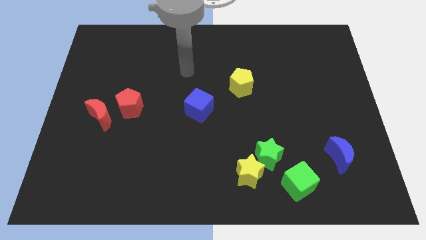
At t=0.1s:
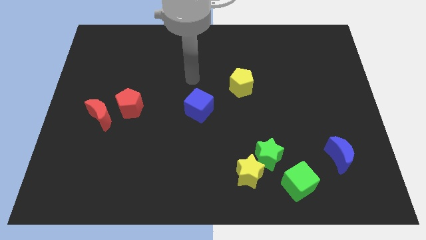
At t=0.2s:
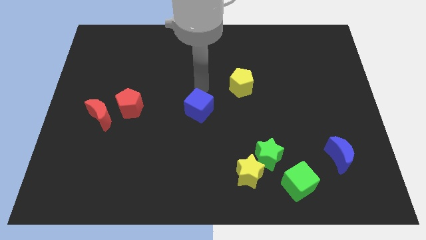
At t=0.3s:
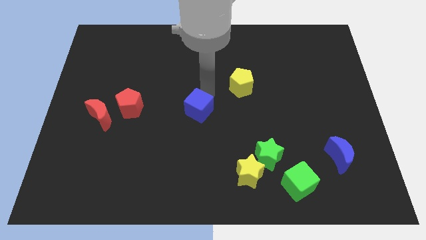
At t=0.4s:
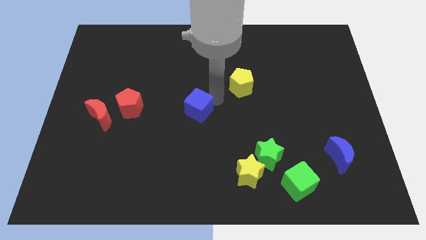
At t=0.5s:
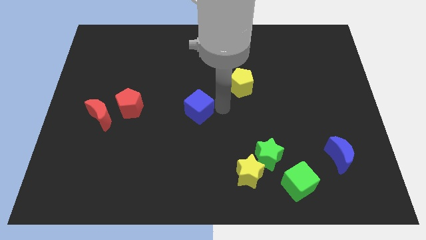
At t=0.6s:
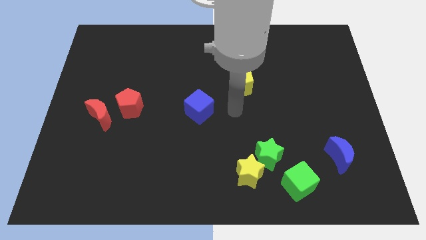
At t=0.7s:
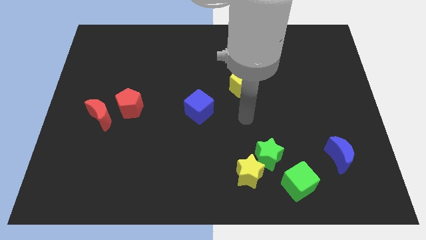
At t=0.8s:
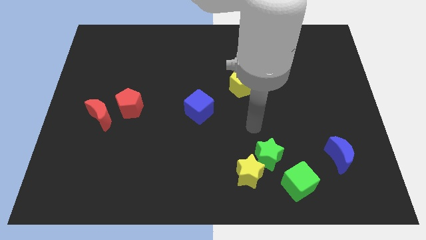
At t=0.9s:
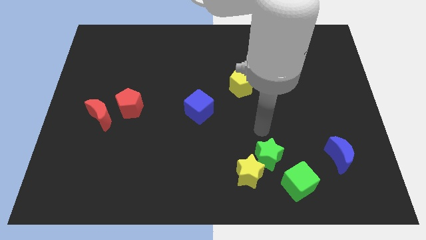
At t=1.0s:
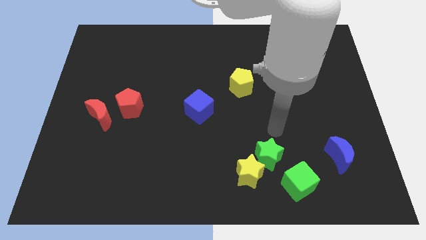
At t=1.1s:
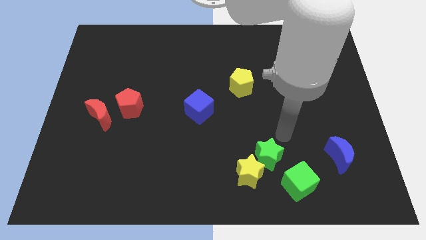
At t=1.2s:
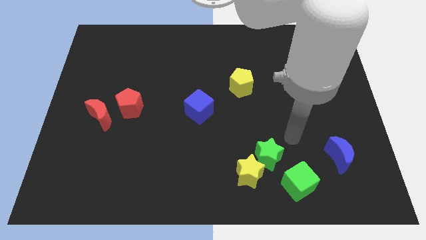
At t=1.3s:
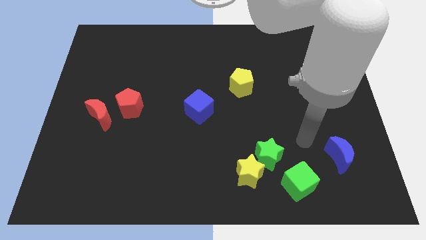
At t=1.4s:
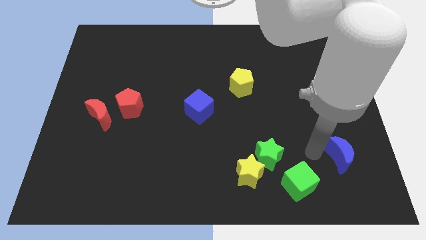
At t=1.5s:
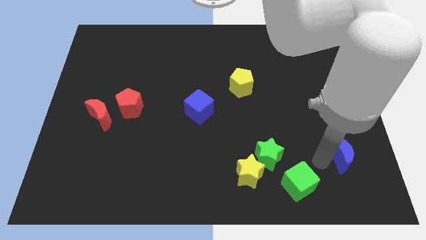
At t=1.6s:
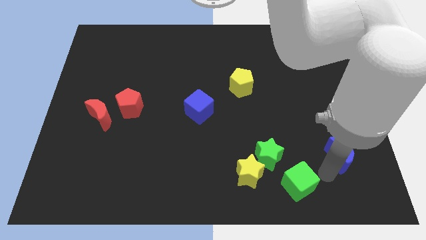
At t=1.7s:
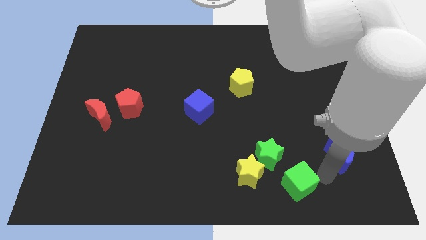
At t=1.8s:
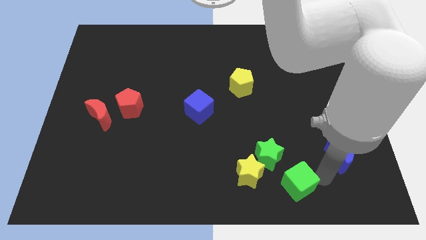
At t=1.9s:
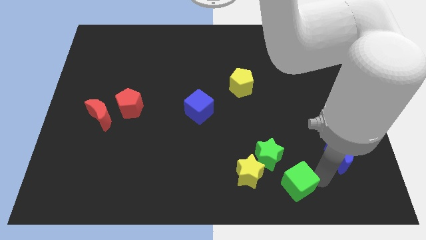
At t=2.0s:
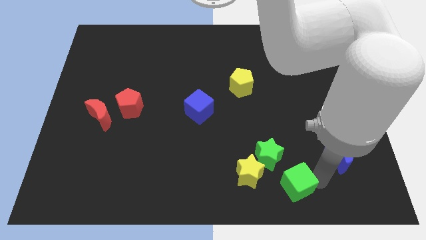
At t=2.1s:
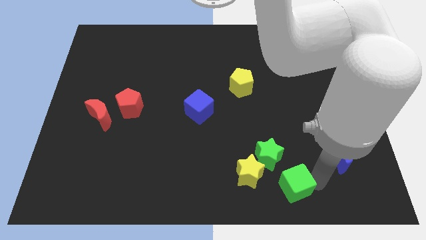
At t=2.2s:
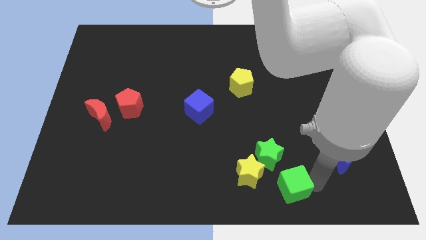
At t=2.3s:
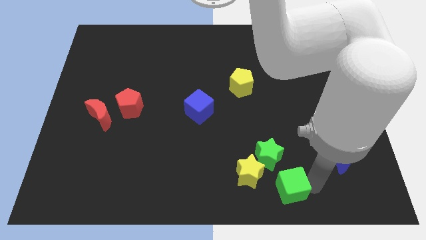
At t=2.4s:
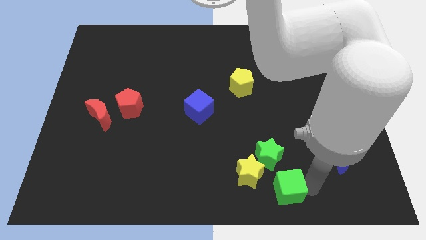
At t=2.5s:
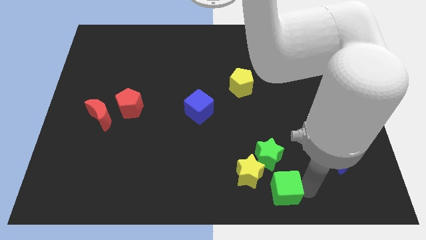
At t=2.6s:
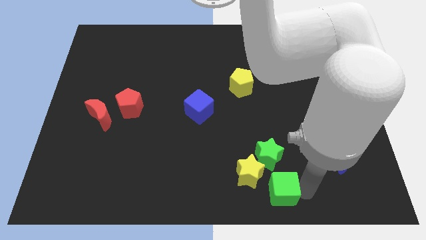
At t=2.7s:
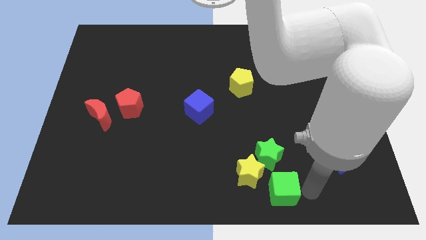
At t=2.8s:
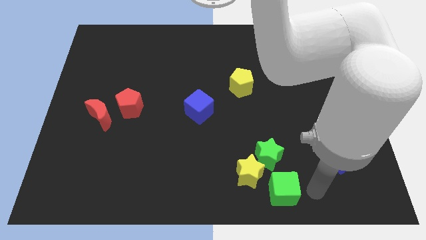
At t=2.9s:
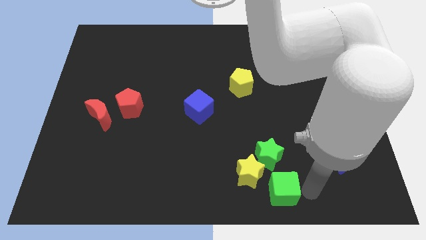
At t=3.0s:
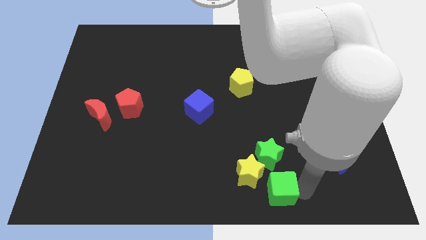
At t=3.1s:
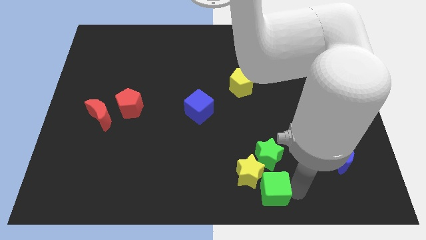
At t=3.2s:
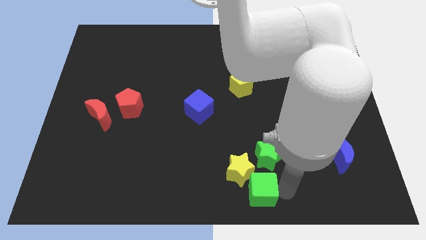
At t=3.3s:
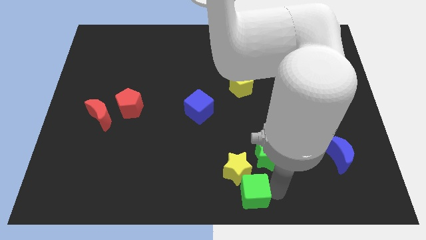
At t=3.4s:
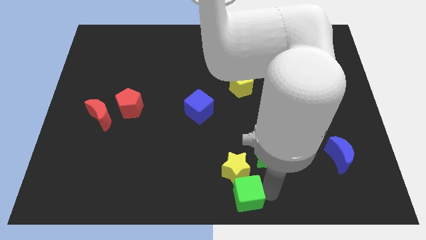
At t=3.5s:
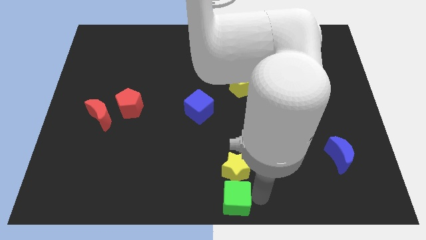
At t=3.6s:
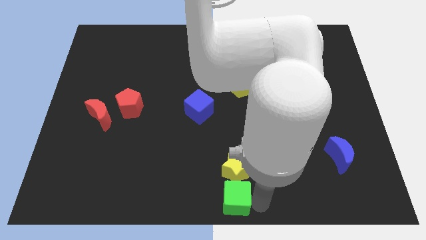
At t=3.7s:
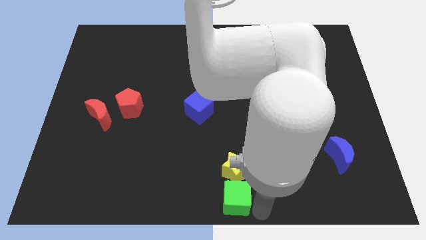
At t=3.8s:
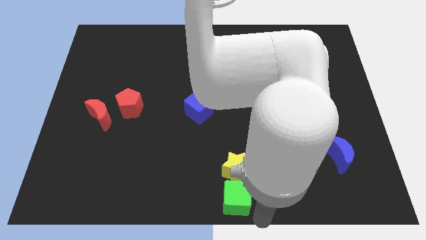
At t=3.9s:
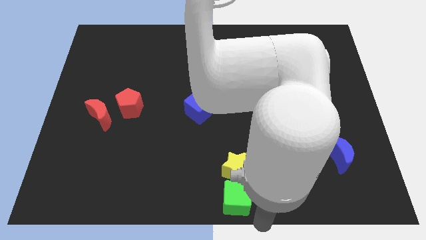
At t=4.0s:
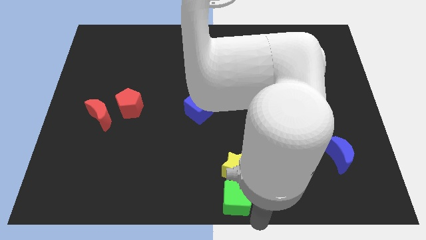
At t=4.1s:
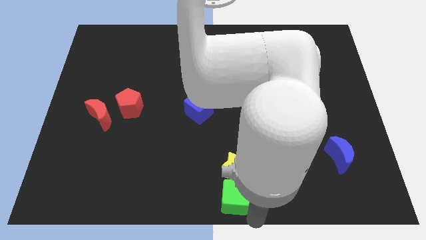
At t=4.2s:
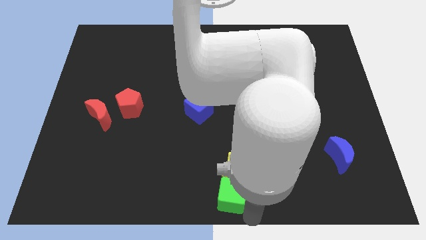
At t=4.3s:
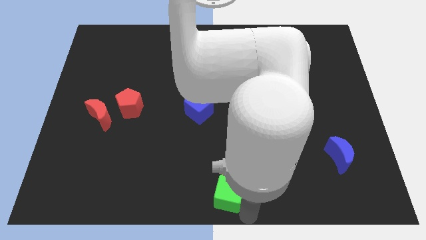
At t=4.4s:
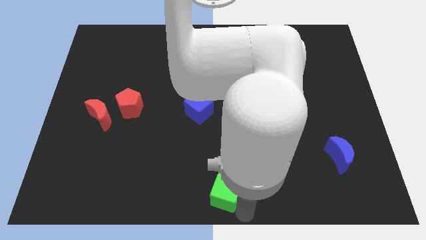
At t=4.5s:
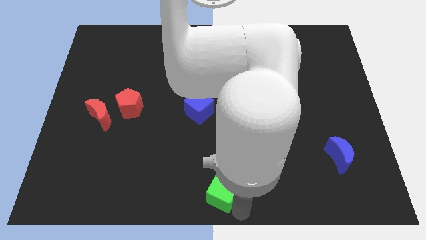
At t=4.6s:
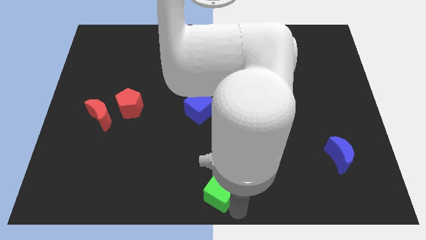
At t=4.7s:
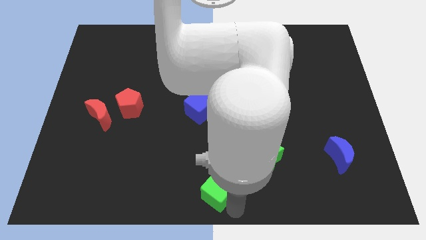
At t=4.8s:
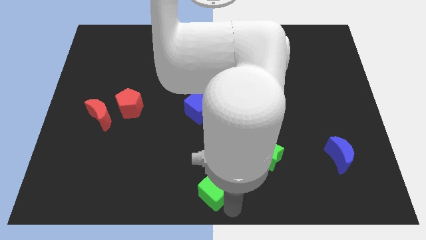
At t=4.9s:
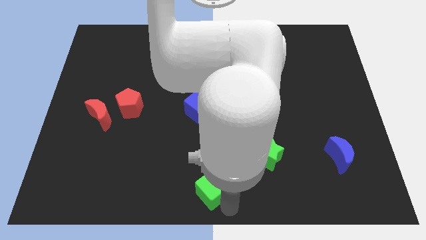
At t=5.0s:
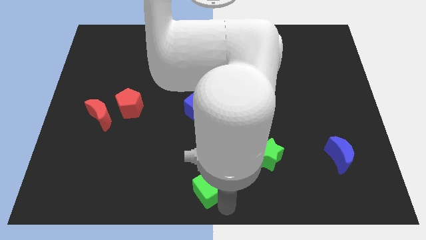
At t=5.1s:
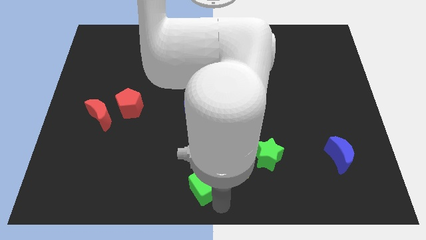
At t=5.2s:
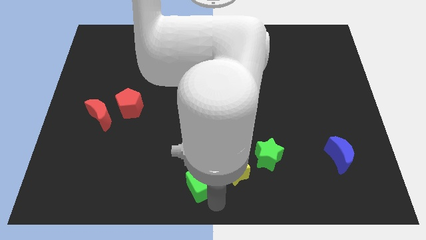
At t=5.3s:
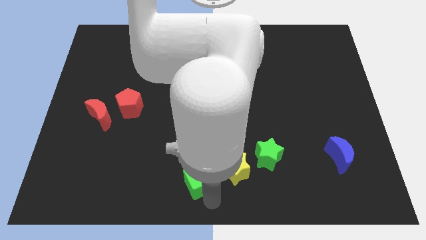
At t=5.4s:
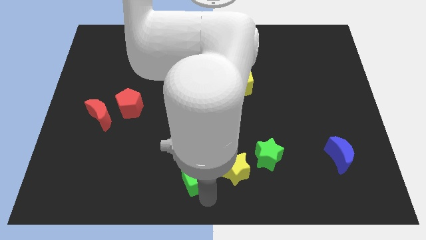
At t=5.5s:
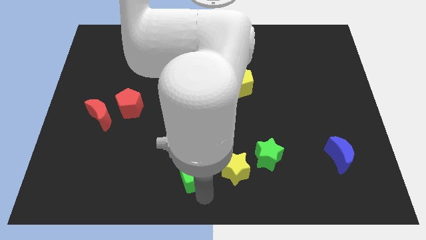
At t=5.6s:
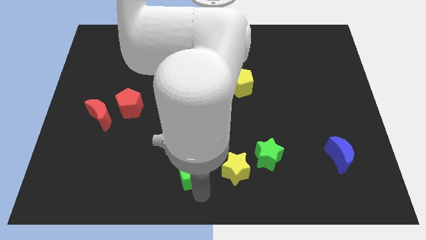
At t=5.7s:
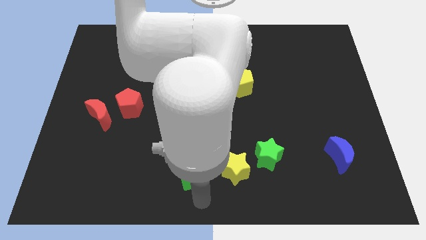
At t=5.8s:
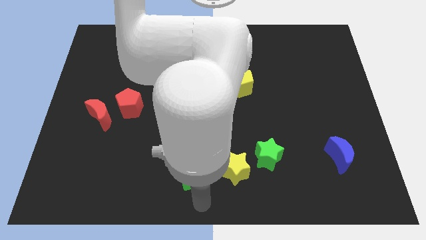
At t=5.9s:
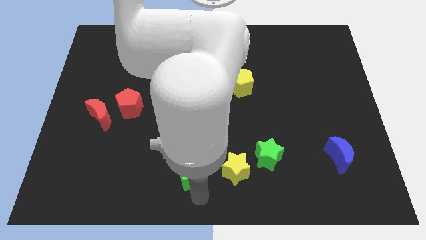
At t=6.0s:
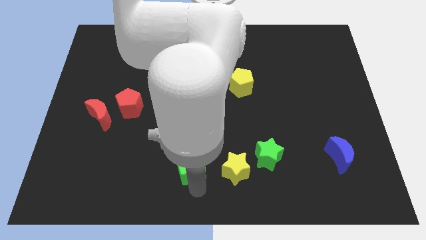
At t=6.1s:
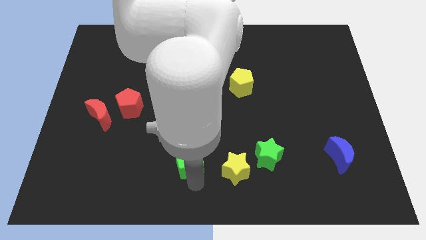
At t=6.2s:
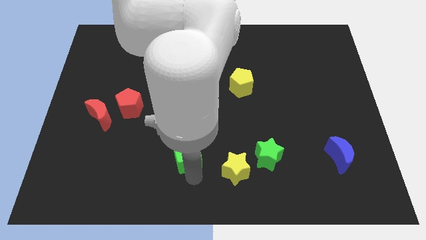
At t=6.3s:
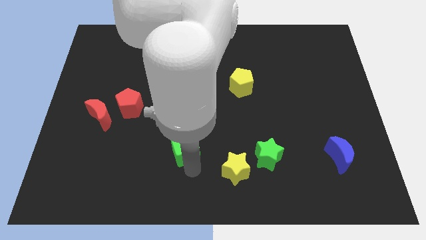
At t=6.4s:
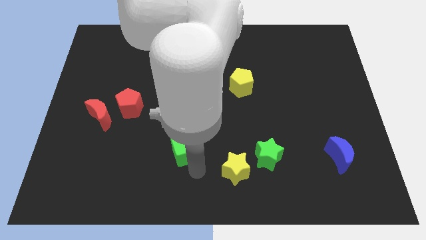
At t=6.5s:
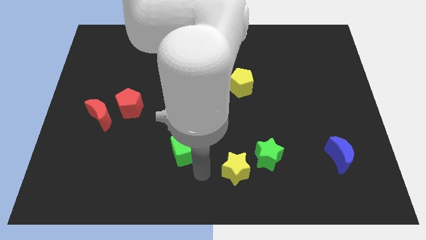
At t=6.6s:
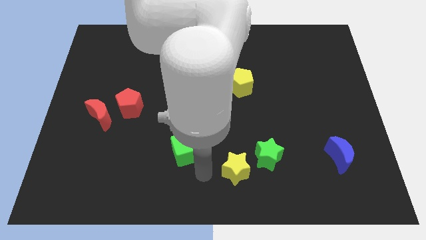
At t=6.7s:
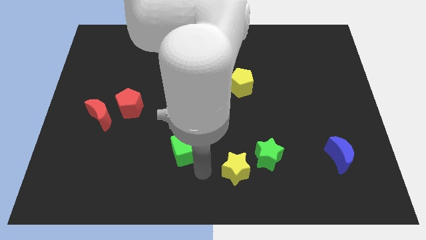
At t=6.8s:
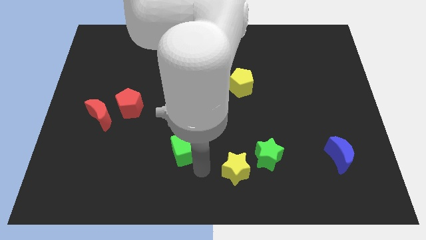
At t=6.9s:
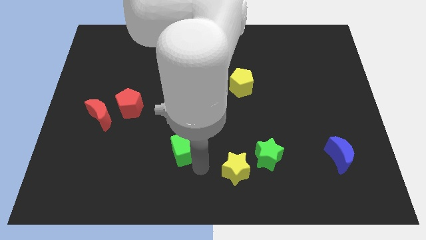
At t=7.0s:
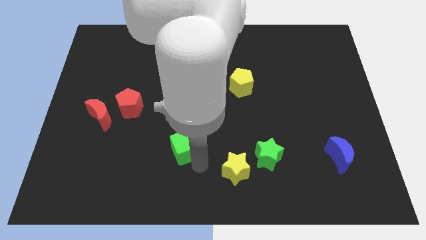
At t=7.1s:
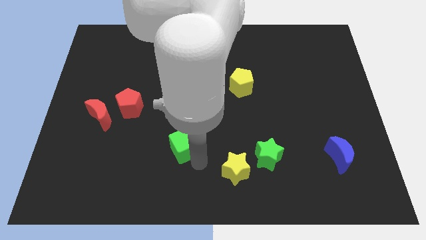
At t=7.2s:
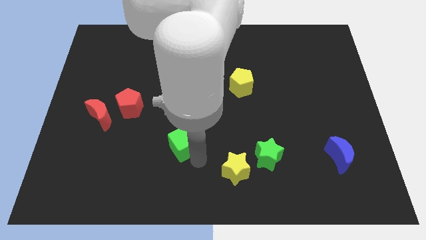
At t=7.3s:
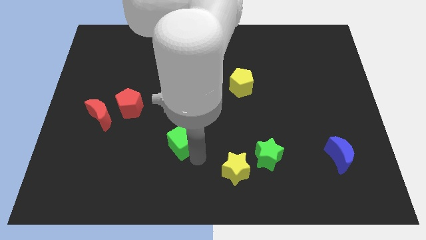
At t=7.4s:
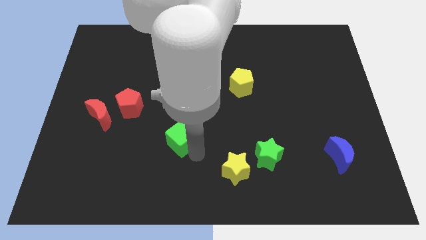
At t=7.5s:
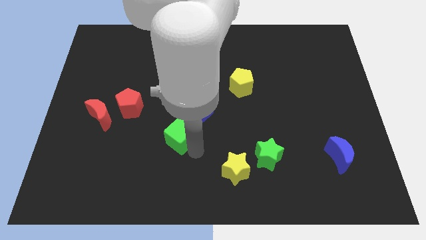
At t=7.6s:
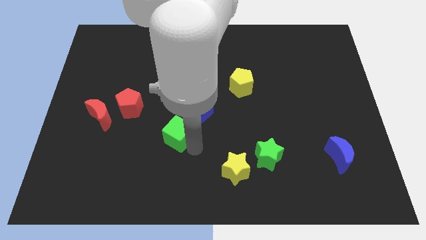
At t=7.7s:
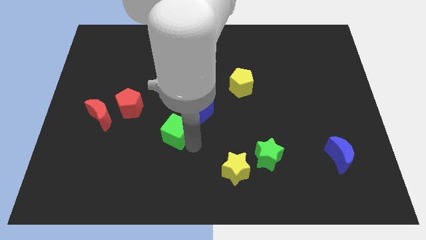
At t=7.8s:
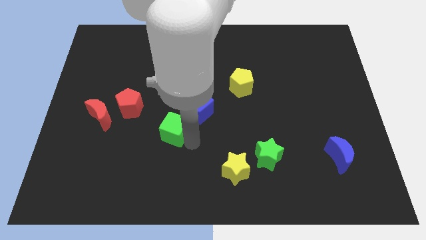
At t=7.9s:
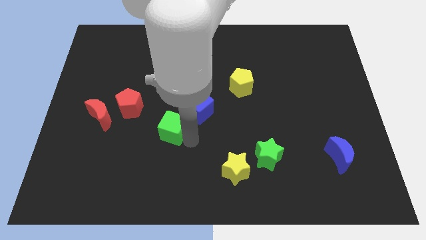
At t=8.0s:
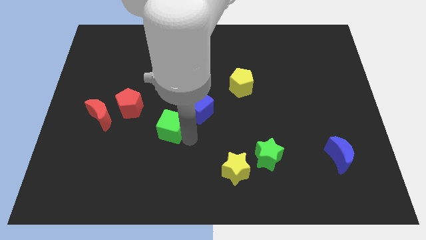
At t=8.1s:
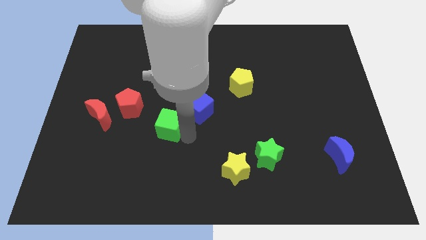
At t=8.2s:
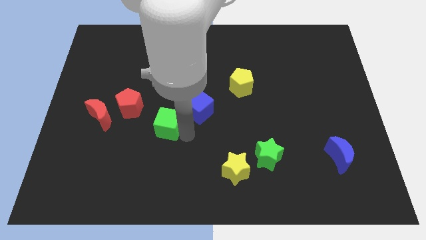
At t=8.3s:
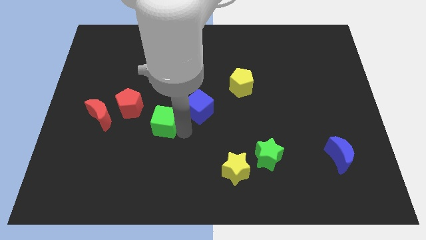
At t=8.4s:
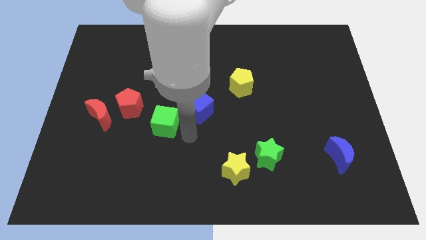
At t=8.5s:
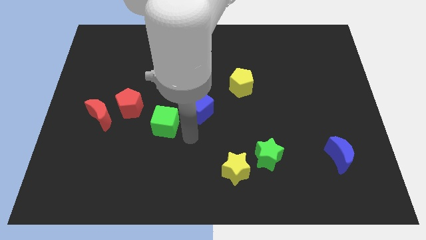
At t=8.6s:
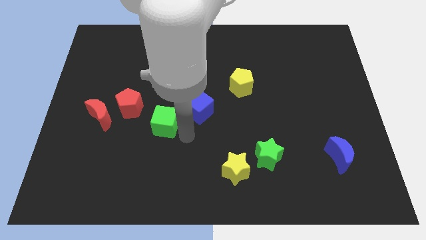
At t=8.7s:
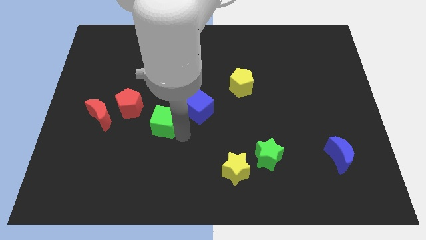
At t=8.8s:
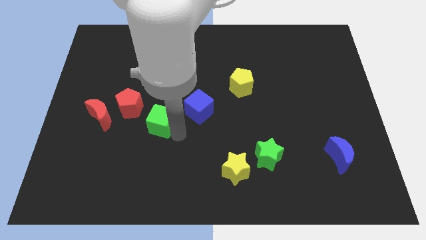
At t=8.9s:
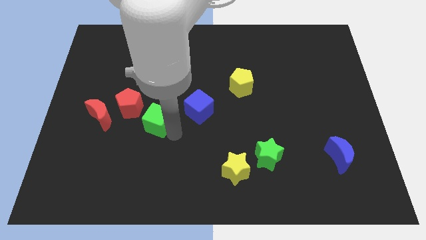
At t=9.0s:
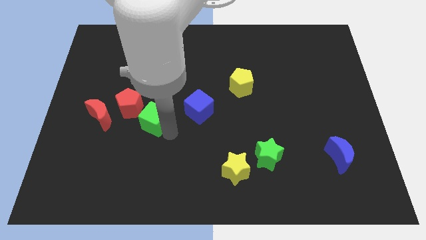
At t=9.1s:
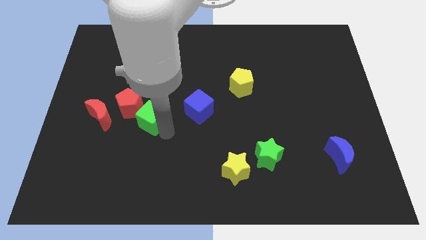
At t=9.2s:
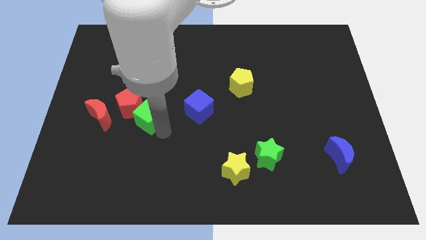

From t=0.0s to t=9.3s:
move the green cube towards the red pentagon
